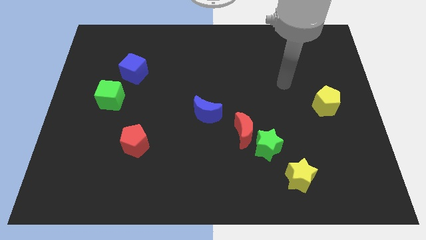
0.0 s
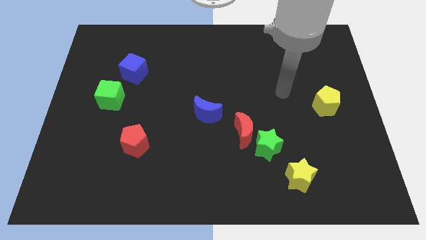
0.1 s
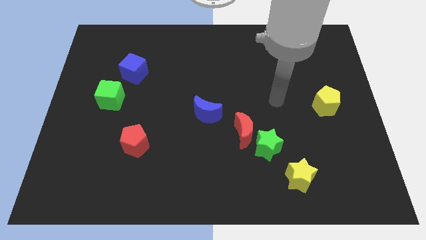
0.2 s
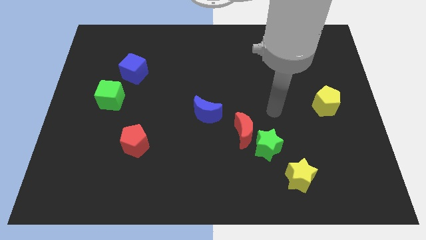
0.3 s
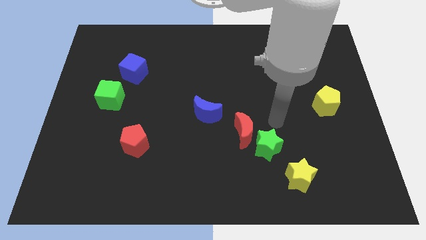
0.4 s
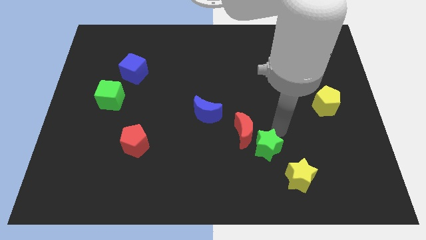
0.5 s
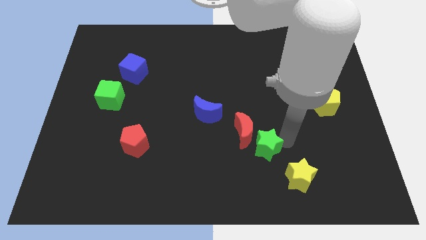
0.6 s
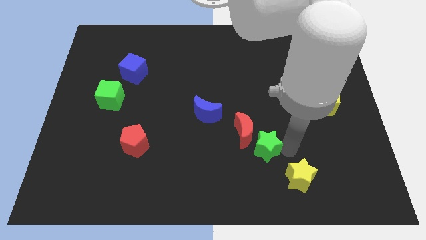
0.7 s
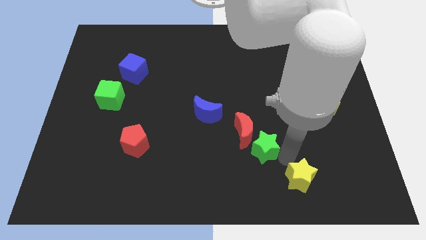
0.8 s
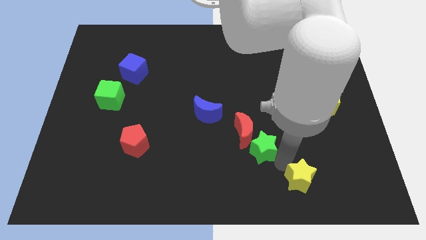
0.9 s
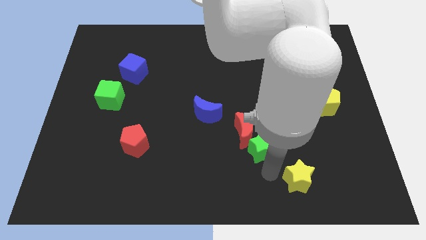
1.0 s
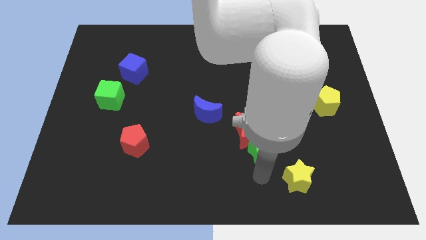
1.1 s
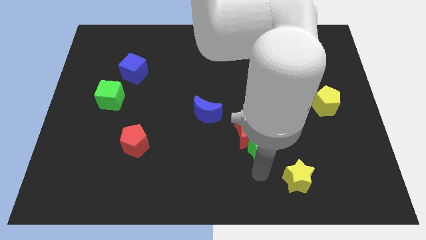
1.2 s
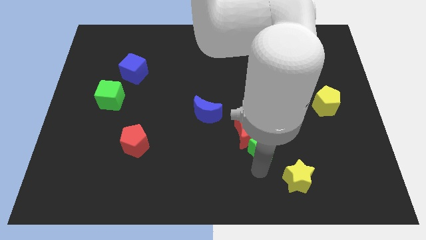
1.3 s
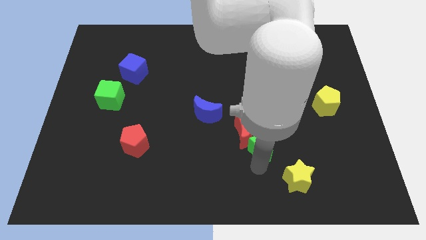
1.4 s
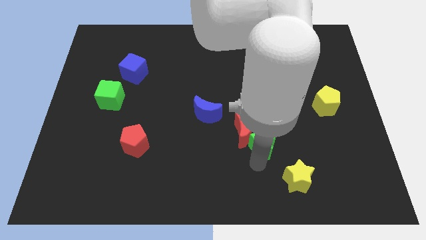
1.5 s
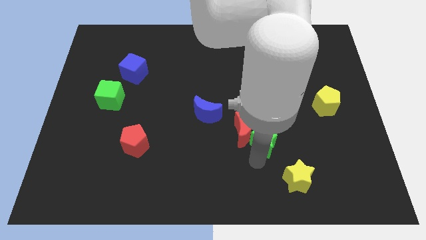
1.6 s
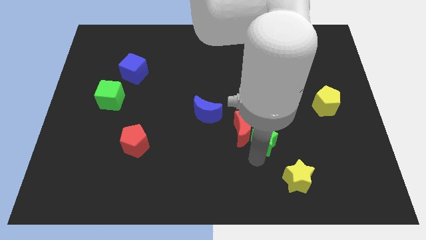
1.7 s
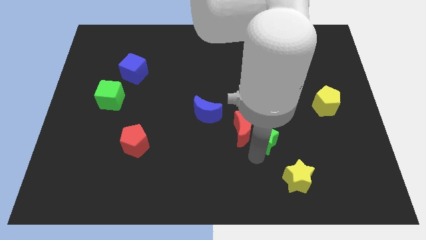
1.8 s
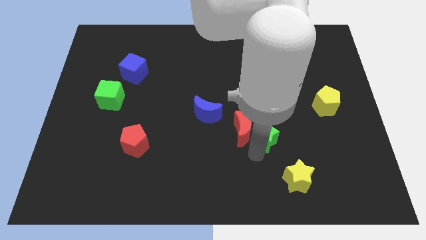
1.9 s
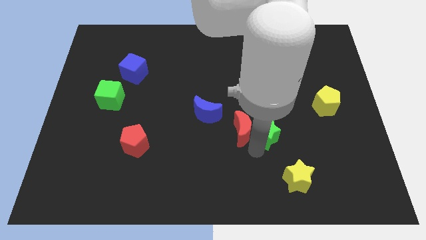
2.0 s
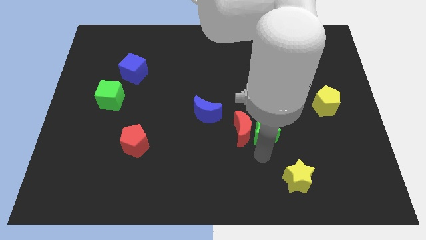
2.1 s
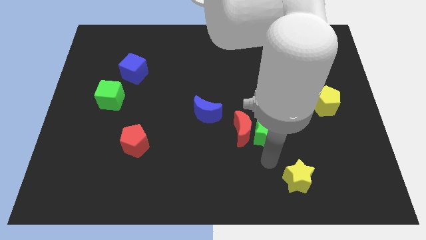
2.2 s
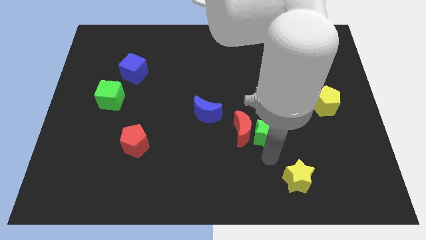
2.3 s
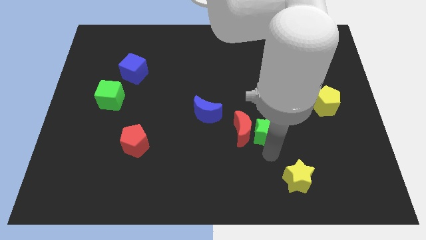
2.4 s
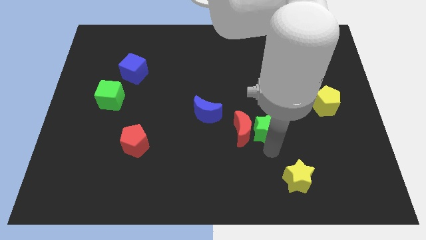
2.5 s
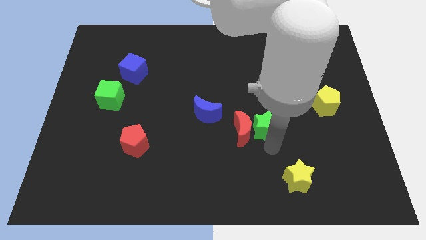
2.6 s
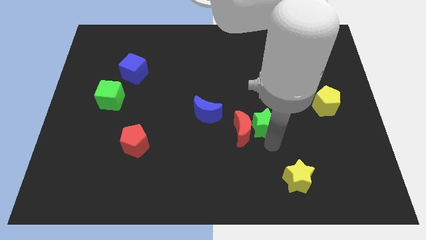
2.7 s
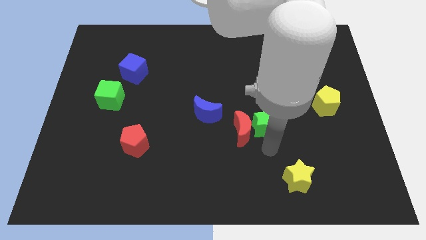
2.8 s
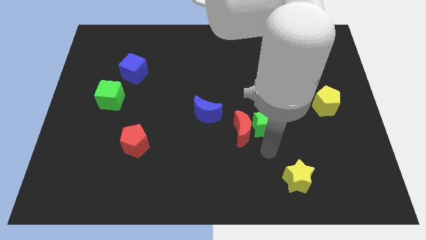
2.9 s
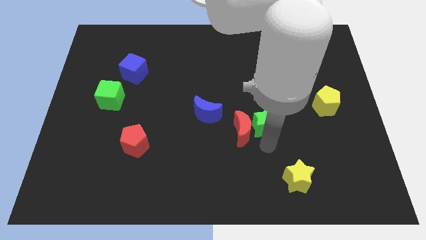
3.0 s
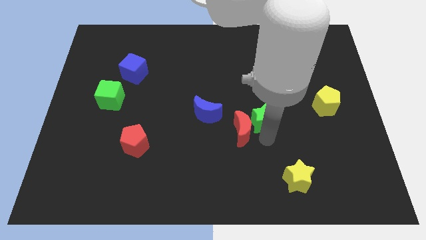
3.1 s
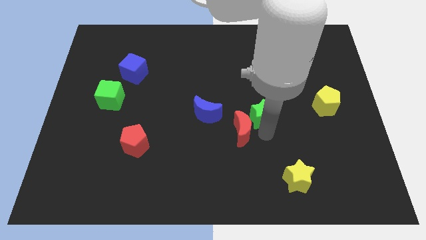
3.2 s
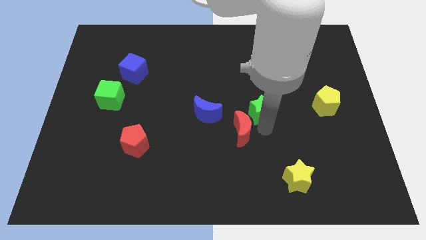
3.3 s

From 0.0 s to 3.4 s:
pull the green star apart from the red moon and yellow star

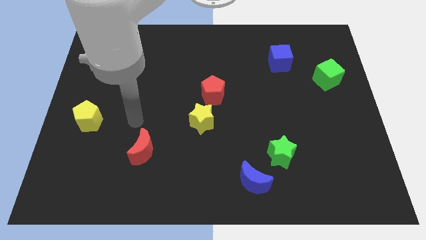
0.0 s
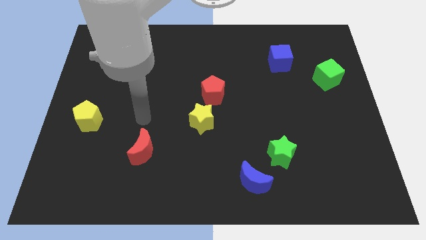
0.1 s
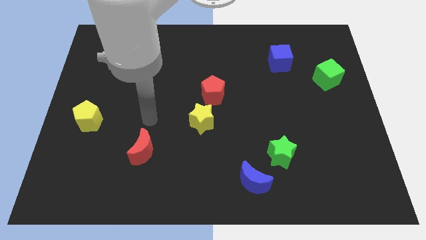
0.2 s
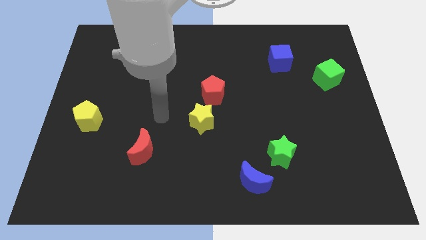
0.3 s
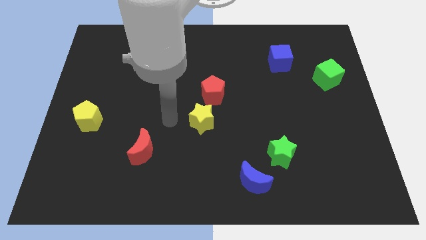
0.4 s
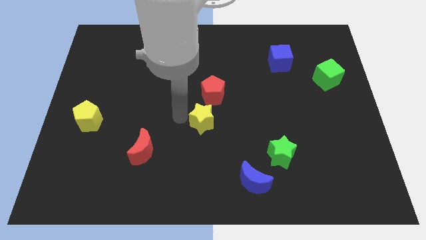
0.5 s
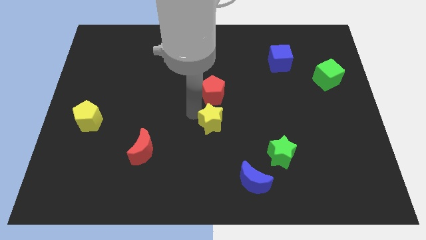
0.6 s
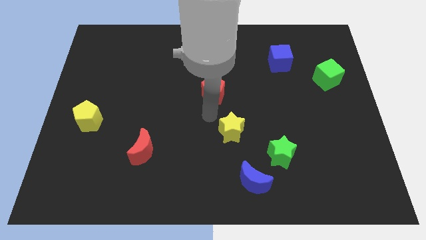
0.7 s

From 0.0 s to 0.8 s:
separate the red pentagon from the yellow star

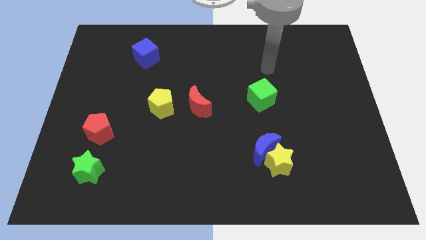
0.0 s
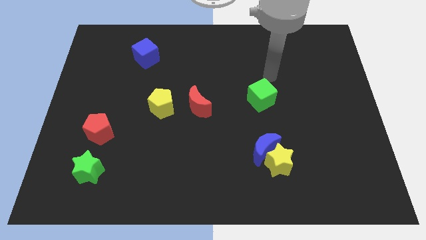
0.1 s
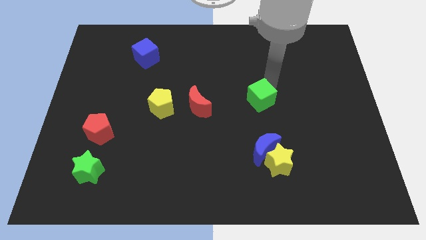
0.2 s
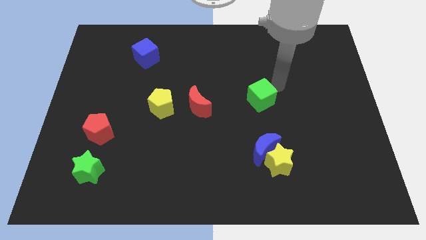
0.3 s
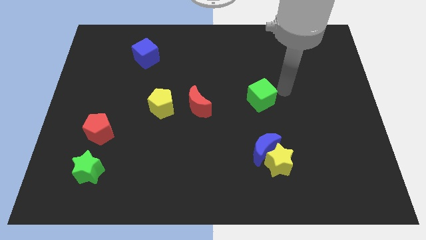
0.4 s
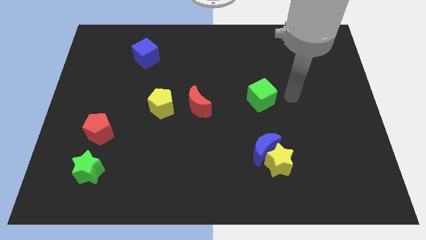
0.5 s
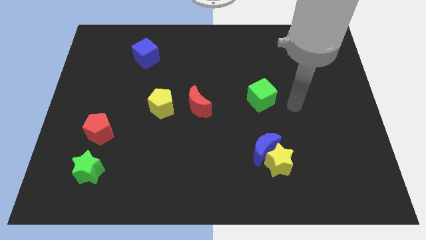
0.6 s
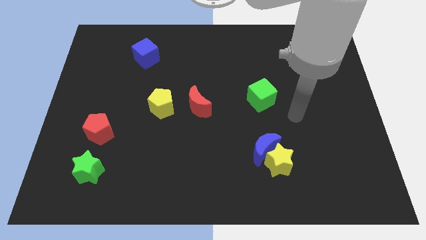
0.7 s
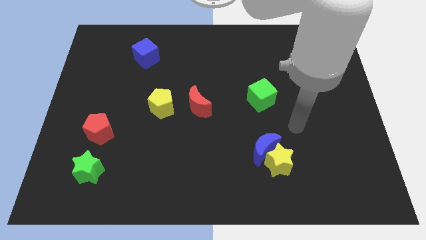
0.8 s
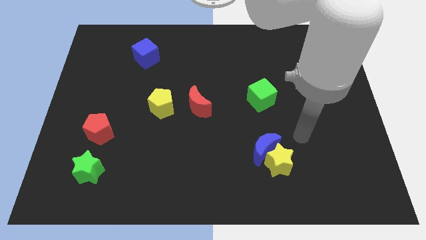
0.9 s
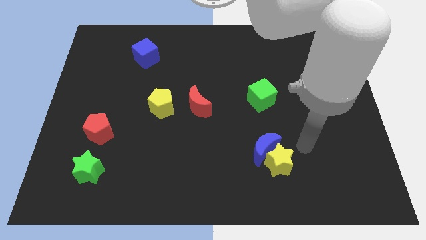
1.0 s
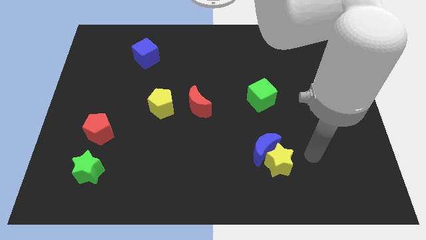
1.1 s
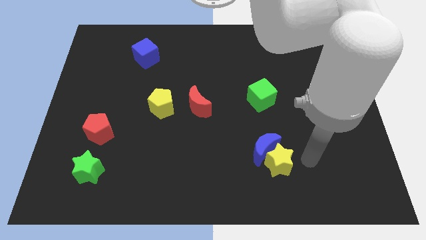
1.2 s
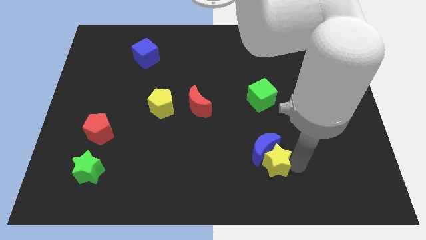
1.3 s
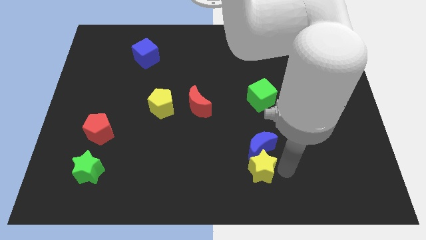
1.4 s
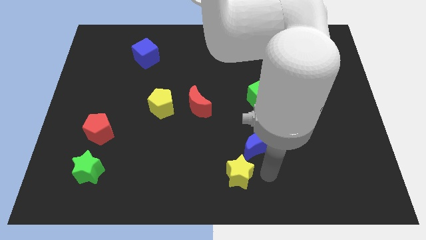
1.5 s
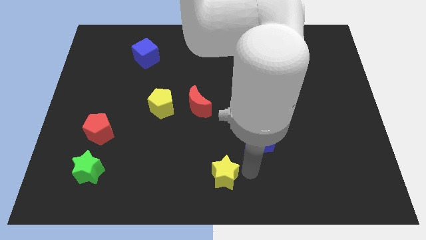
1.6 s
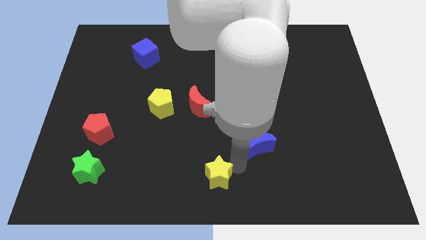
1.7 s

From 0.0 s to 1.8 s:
pull the blue moon apart from the yellow star

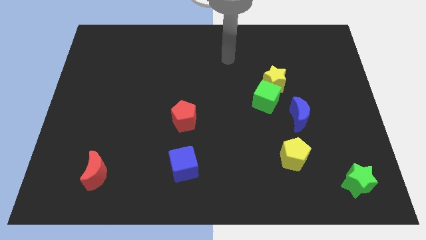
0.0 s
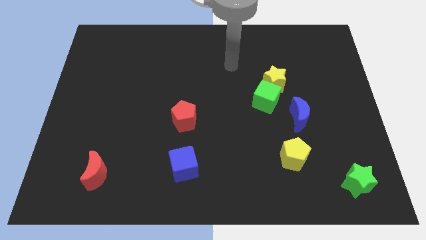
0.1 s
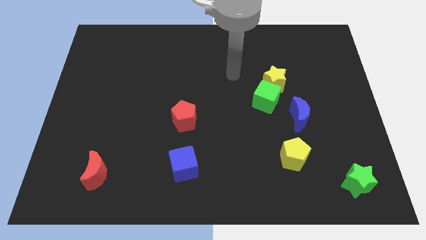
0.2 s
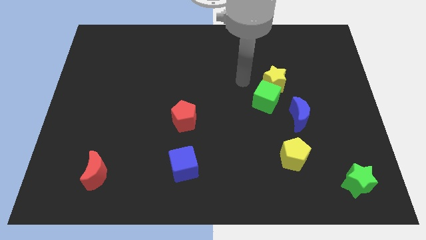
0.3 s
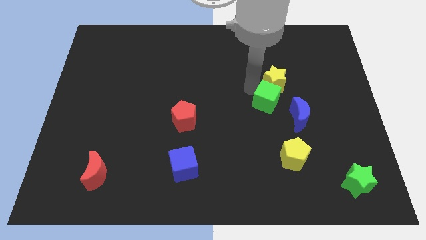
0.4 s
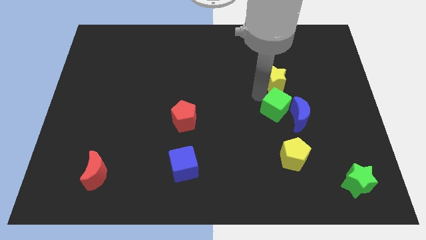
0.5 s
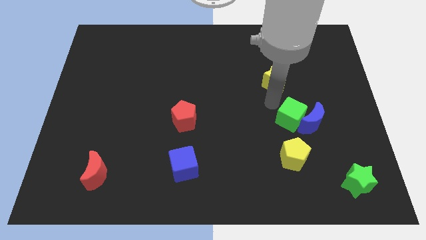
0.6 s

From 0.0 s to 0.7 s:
separate the yellow star from the green cube

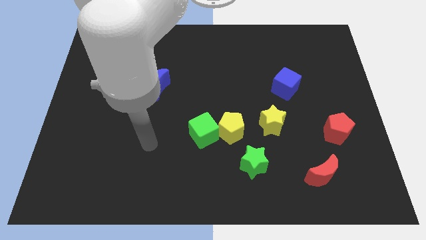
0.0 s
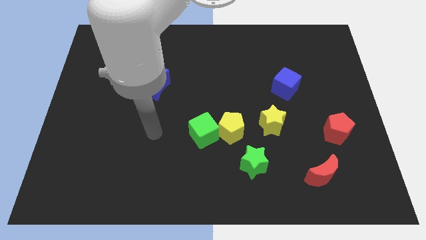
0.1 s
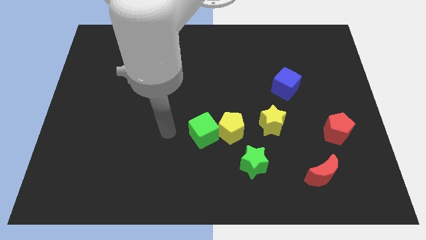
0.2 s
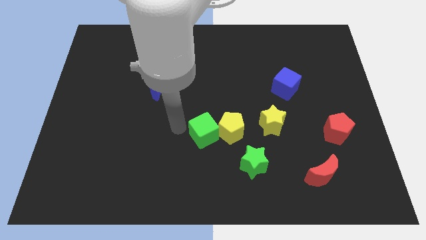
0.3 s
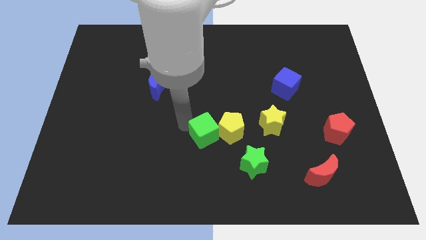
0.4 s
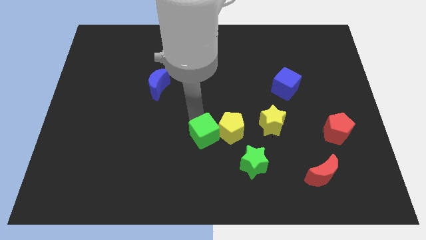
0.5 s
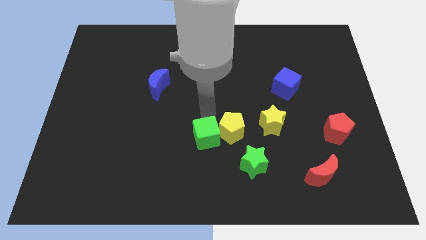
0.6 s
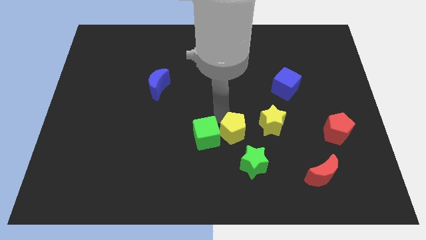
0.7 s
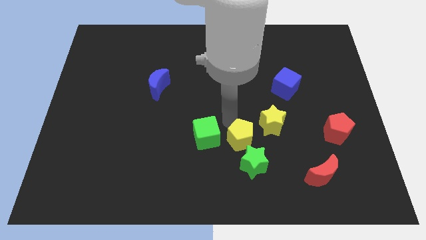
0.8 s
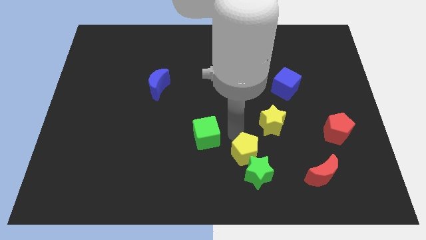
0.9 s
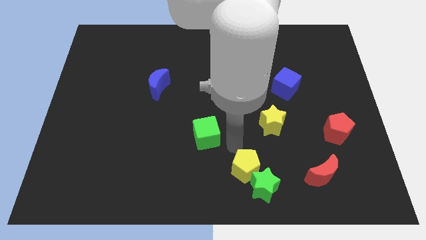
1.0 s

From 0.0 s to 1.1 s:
move the green cube away from the yellow pentagon

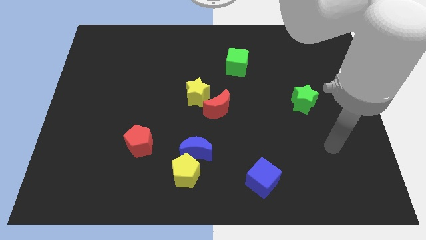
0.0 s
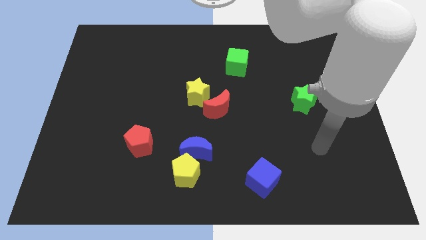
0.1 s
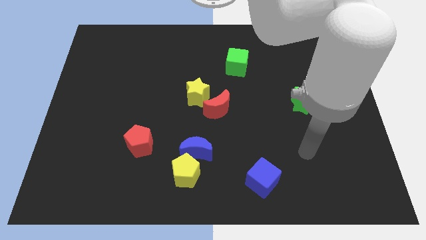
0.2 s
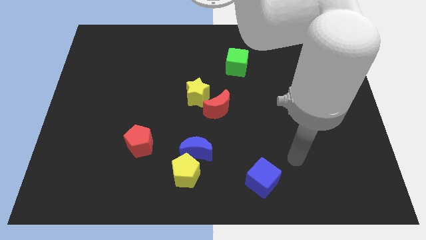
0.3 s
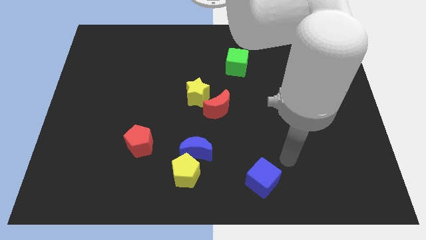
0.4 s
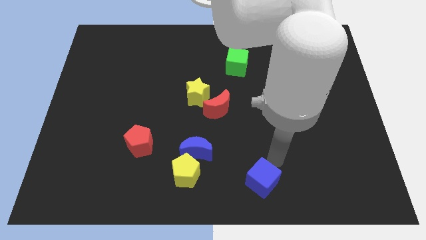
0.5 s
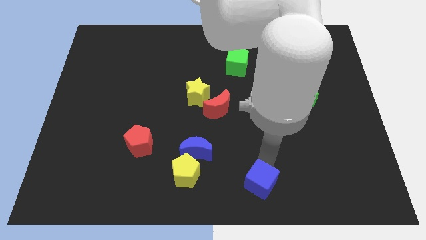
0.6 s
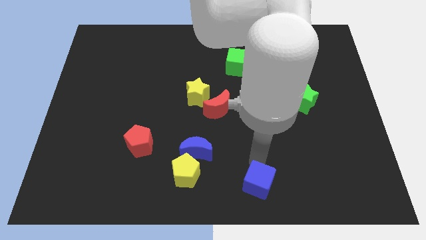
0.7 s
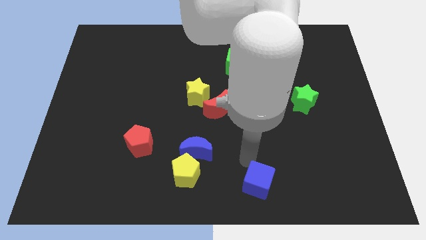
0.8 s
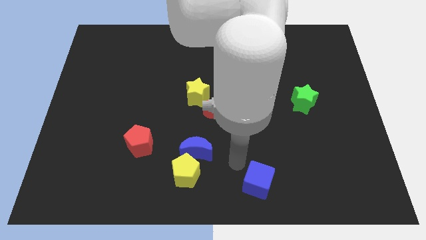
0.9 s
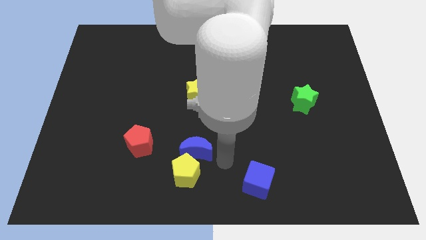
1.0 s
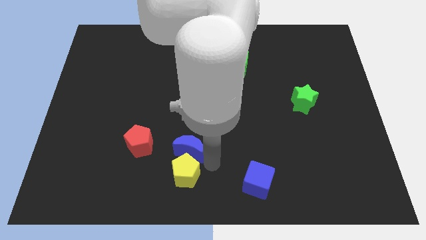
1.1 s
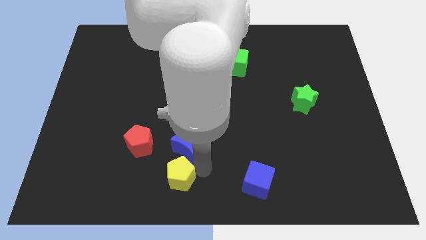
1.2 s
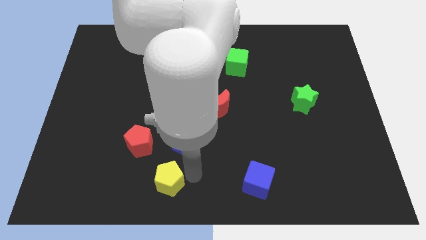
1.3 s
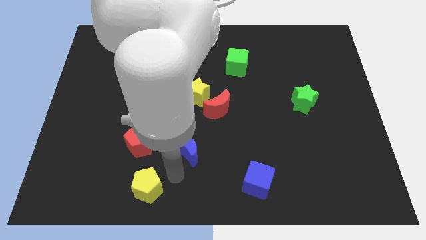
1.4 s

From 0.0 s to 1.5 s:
move the blue moon away from the yellow pentagon
